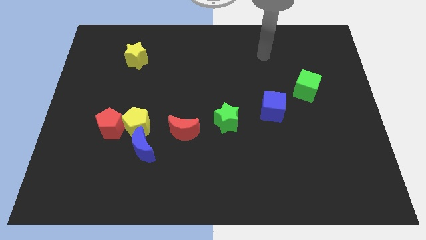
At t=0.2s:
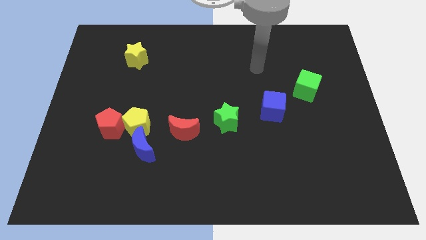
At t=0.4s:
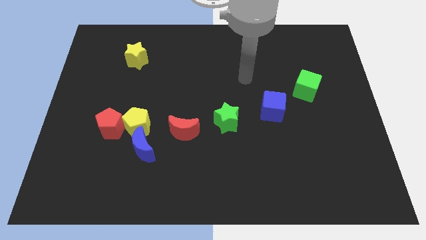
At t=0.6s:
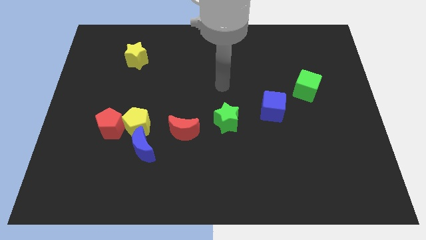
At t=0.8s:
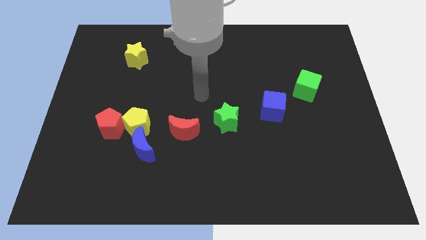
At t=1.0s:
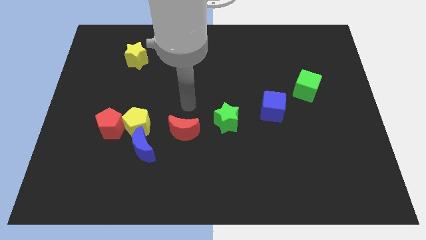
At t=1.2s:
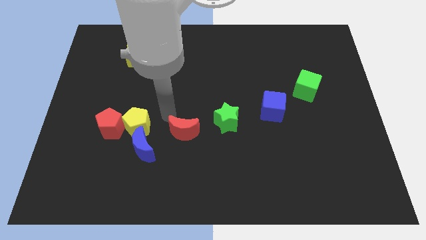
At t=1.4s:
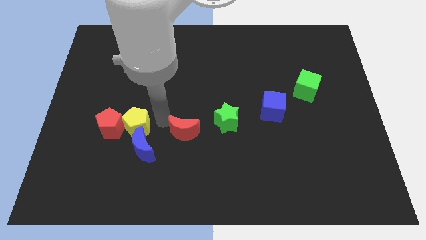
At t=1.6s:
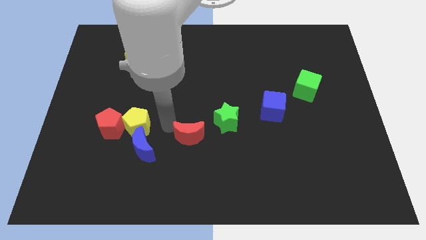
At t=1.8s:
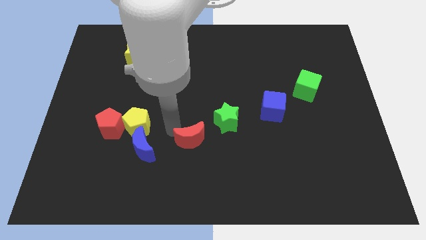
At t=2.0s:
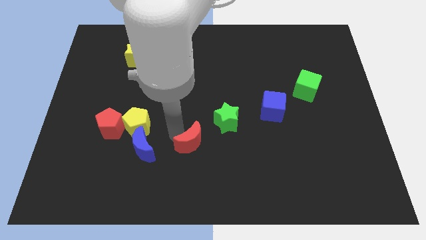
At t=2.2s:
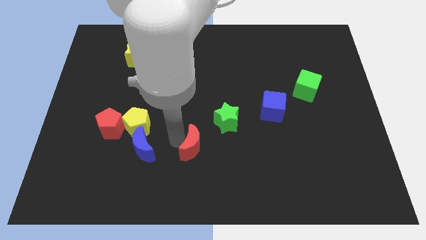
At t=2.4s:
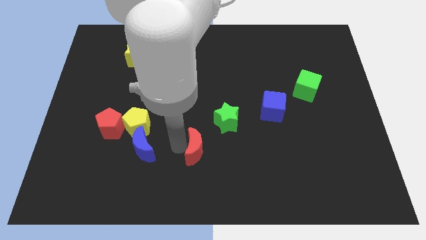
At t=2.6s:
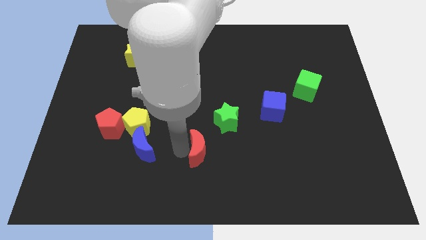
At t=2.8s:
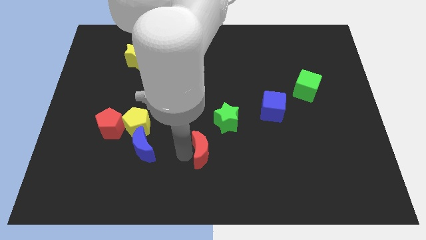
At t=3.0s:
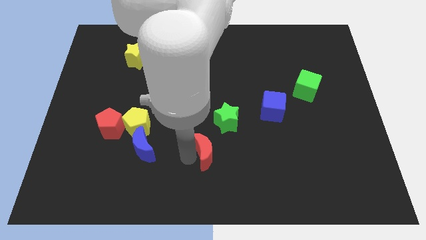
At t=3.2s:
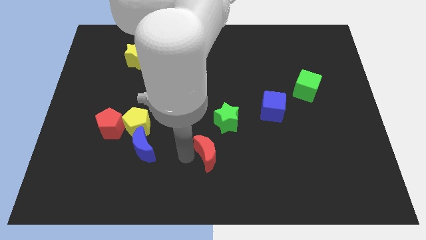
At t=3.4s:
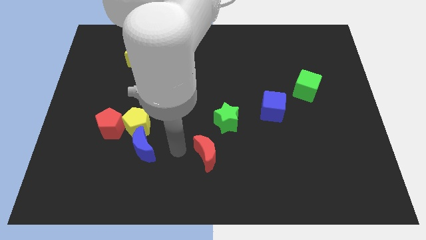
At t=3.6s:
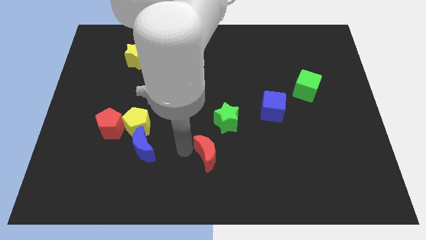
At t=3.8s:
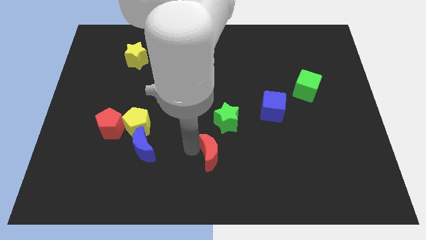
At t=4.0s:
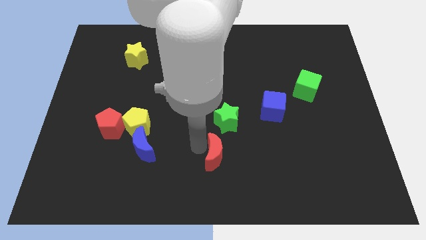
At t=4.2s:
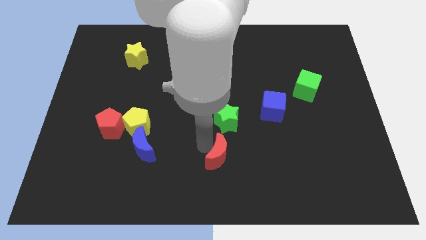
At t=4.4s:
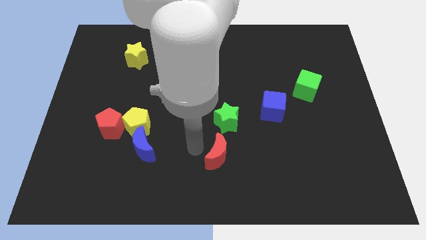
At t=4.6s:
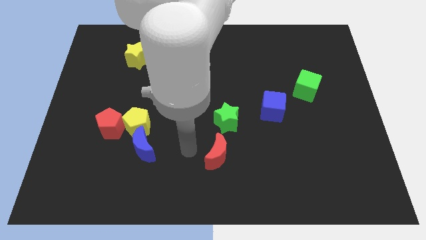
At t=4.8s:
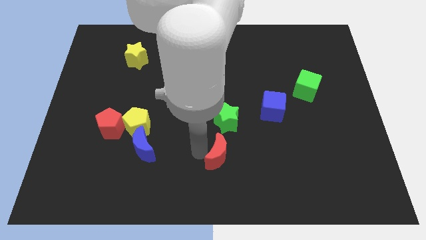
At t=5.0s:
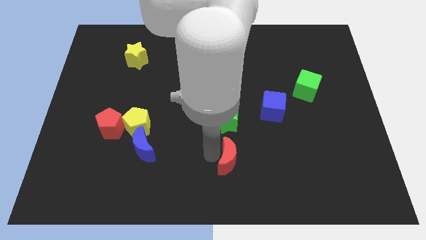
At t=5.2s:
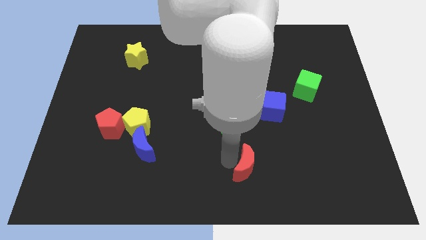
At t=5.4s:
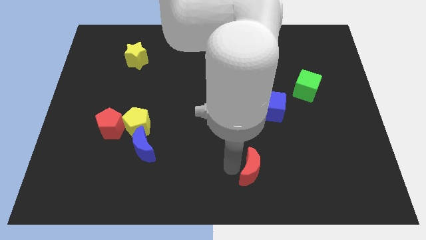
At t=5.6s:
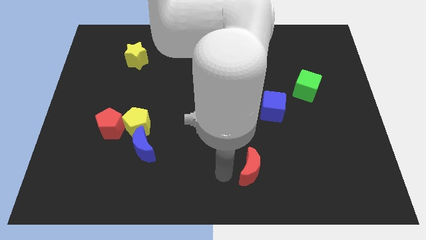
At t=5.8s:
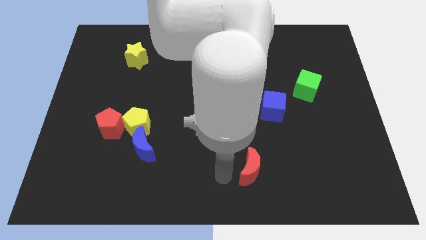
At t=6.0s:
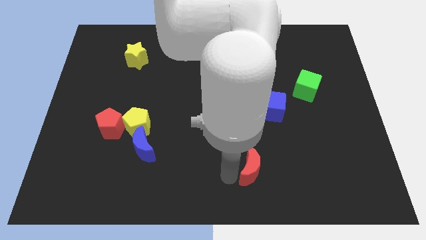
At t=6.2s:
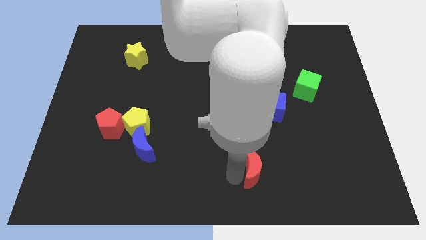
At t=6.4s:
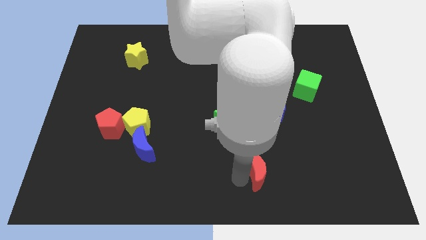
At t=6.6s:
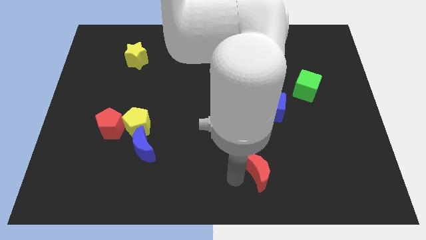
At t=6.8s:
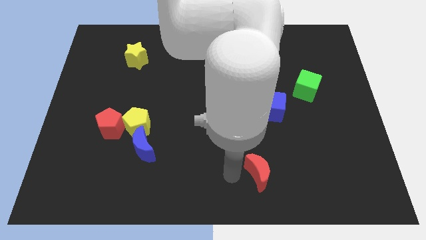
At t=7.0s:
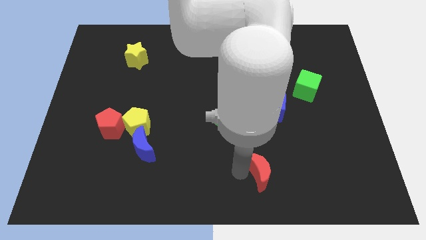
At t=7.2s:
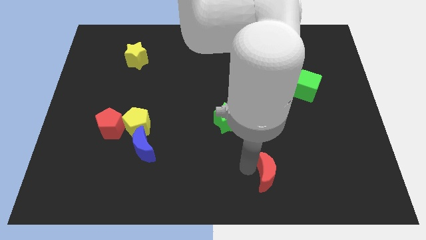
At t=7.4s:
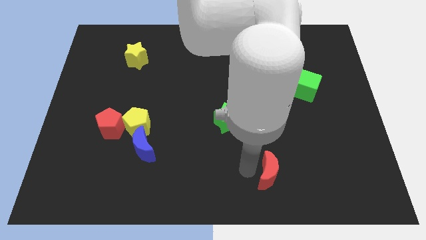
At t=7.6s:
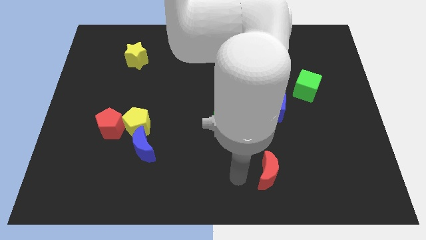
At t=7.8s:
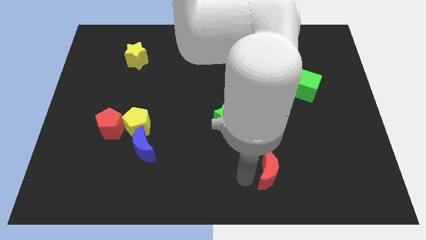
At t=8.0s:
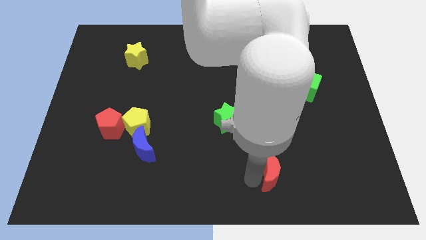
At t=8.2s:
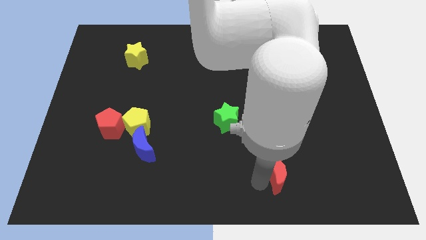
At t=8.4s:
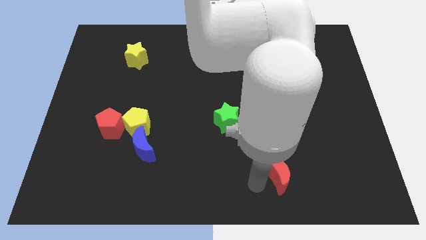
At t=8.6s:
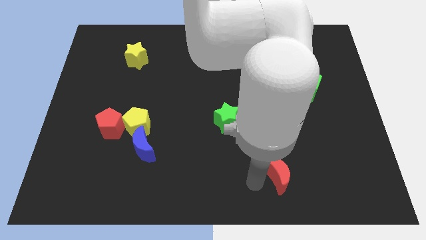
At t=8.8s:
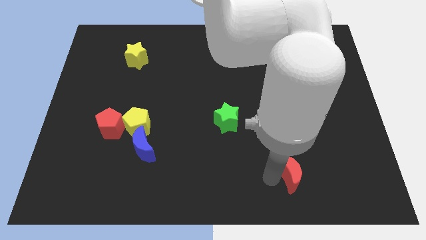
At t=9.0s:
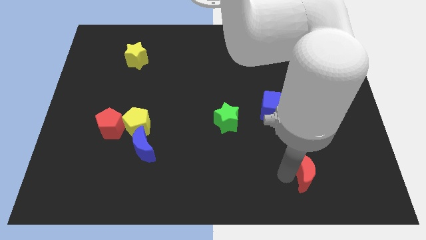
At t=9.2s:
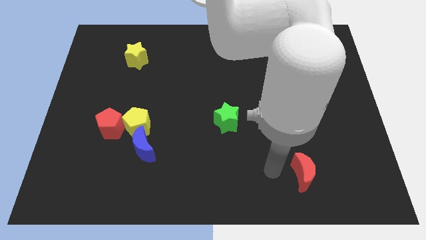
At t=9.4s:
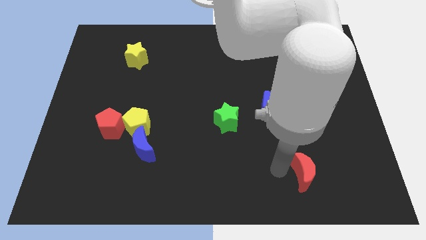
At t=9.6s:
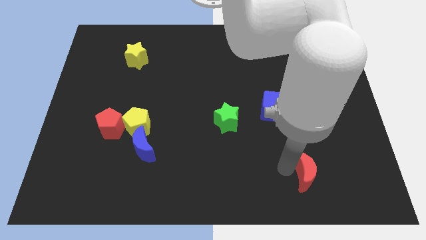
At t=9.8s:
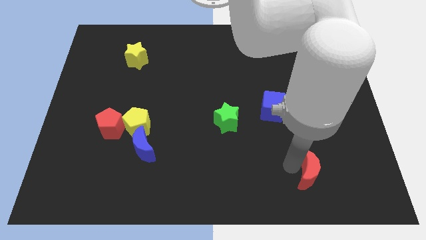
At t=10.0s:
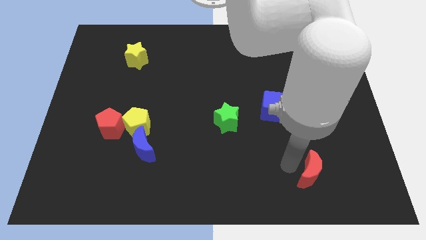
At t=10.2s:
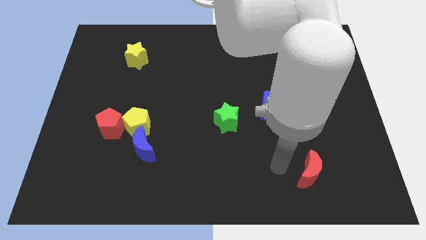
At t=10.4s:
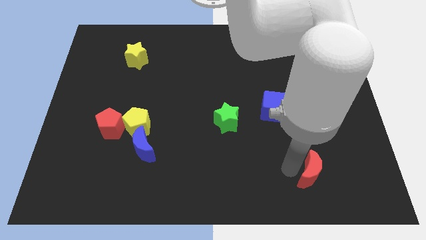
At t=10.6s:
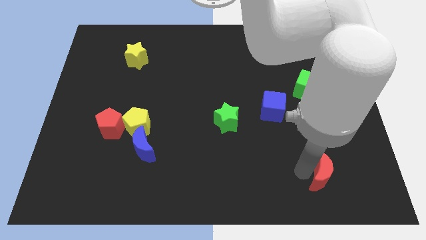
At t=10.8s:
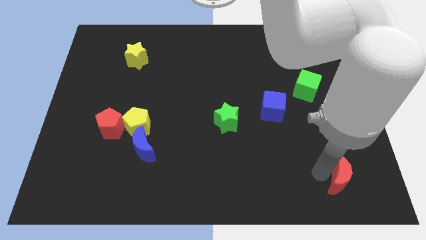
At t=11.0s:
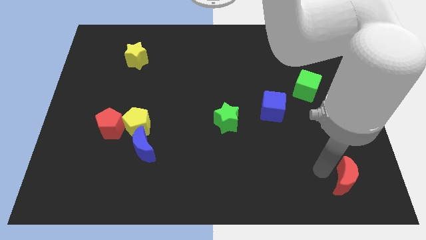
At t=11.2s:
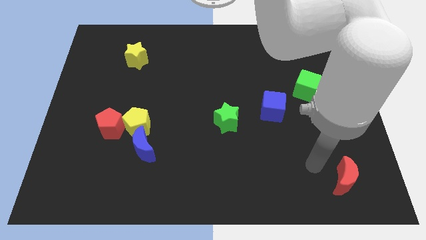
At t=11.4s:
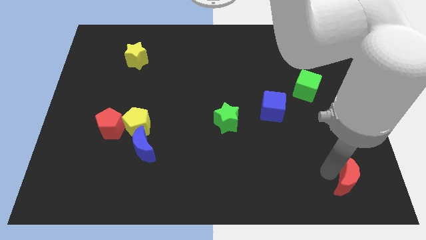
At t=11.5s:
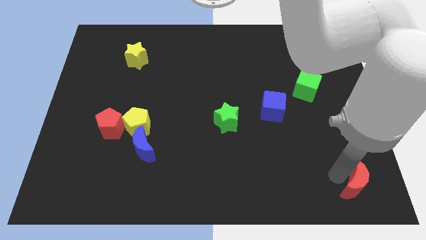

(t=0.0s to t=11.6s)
push the red moon to the lower right corner

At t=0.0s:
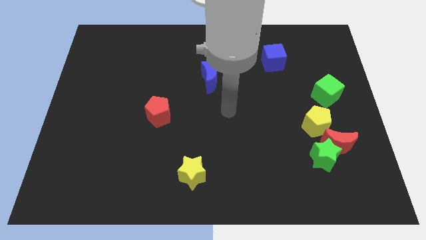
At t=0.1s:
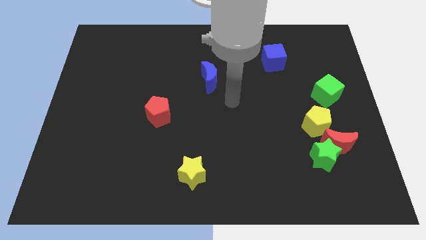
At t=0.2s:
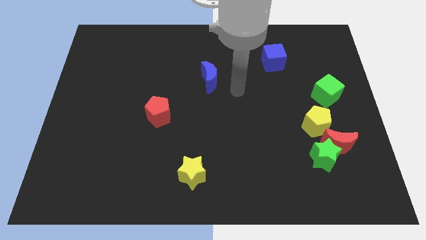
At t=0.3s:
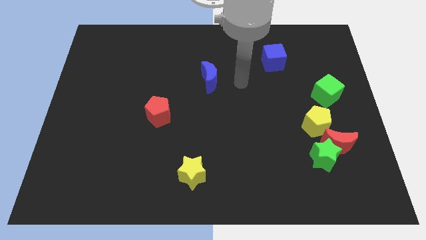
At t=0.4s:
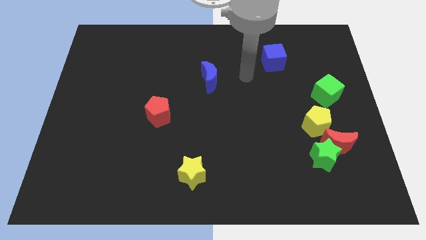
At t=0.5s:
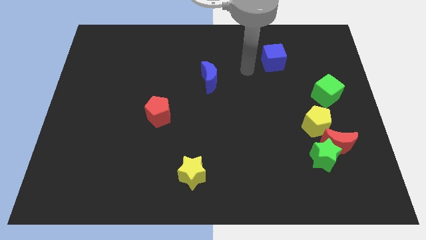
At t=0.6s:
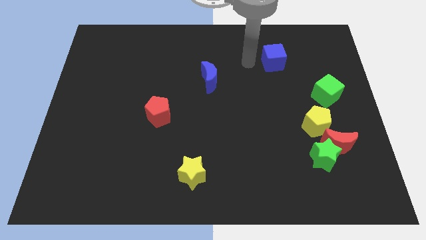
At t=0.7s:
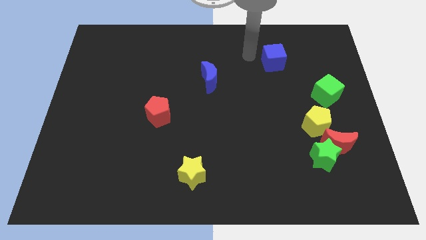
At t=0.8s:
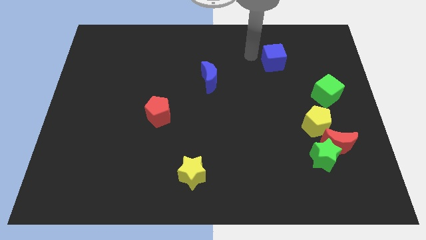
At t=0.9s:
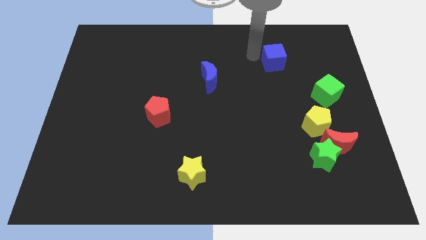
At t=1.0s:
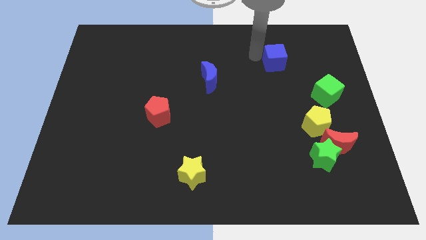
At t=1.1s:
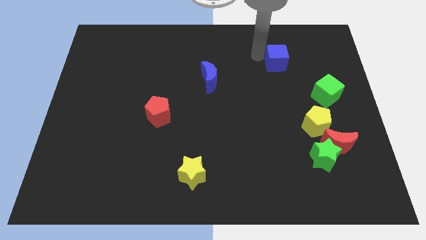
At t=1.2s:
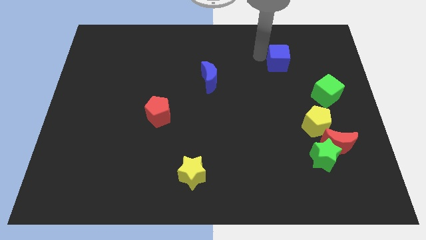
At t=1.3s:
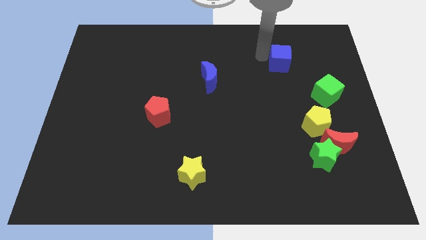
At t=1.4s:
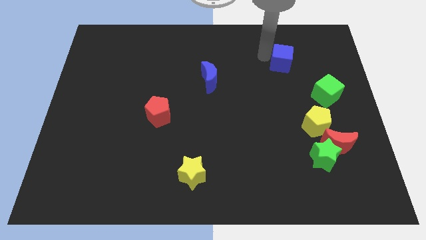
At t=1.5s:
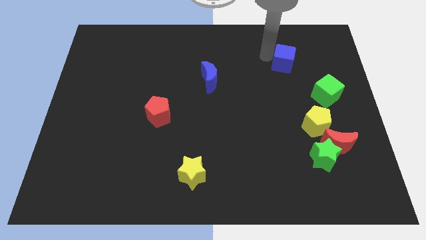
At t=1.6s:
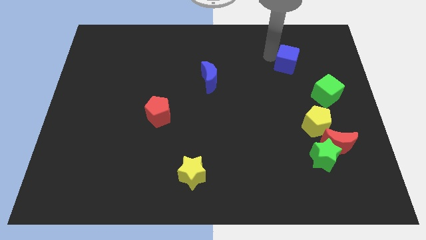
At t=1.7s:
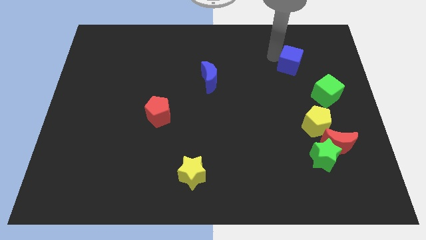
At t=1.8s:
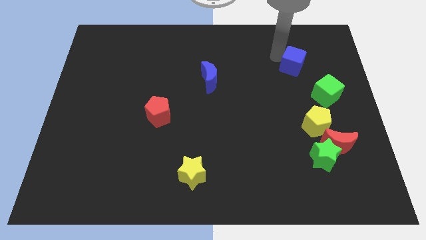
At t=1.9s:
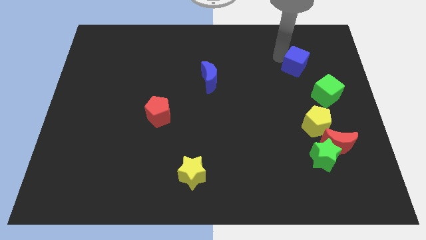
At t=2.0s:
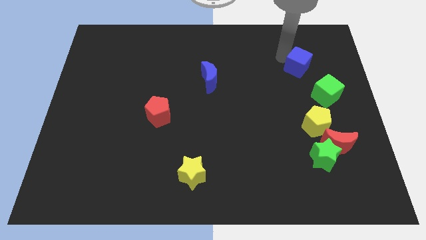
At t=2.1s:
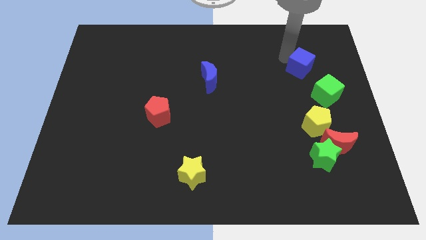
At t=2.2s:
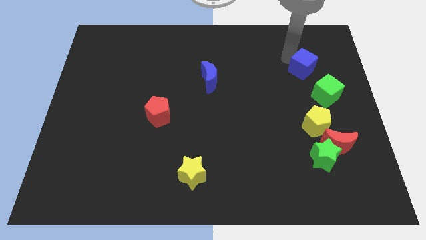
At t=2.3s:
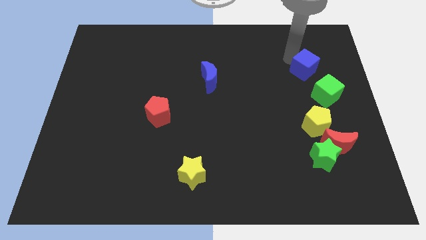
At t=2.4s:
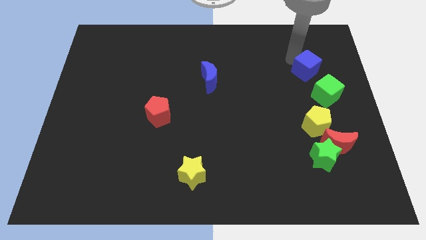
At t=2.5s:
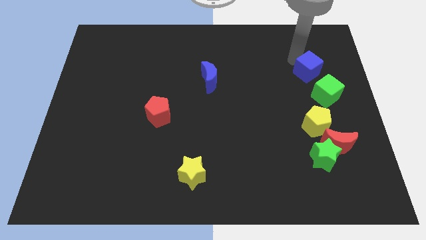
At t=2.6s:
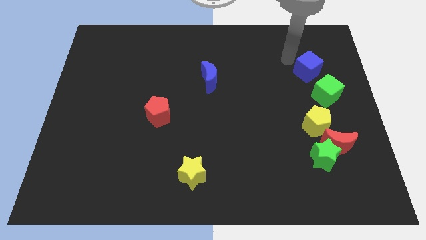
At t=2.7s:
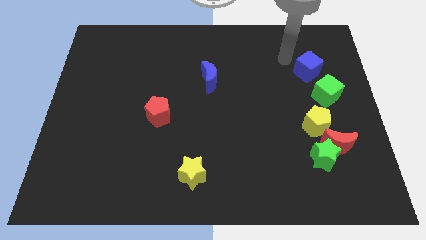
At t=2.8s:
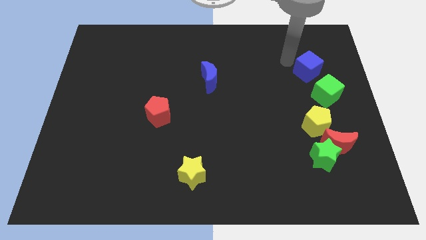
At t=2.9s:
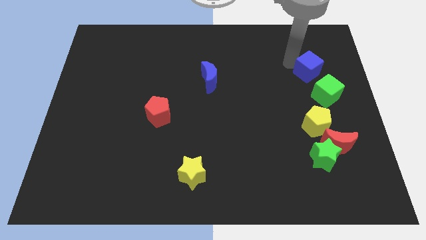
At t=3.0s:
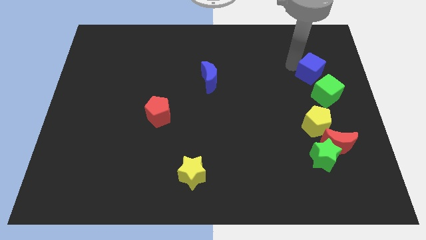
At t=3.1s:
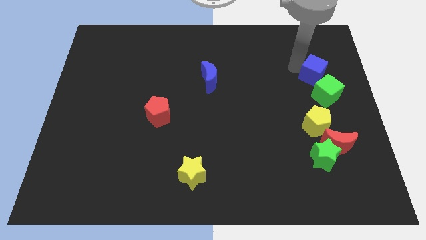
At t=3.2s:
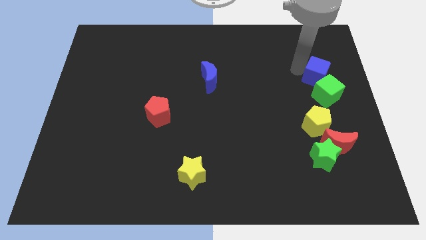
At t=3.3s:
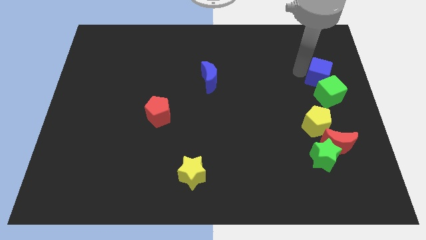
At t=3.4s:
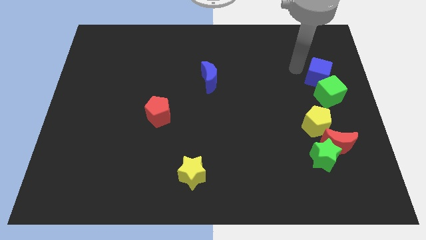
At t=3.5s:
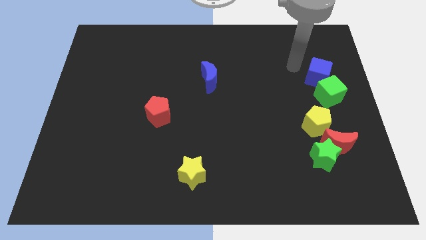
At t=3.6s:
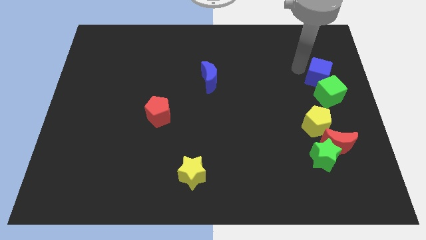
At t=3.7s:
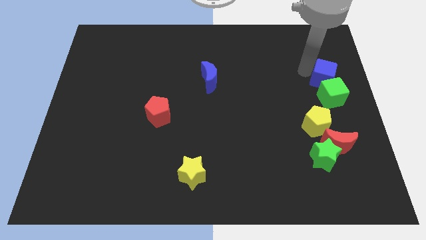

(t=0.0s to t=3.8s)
slide the blue cube to the right side of the board
